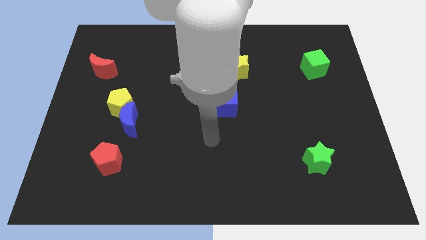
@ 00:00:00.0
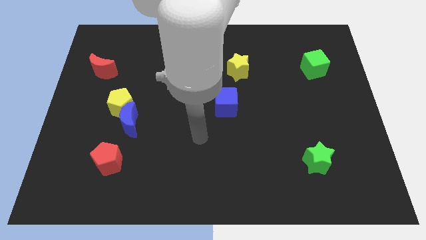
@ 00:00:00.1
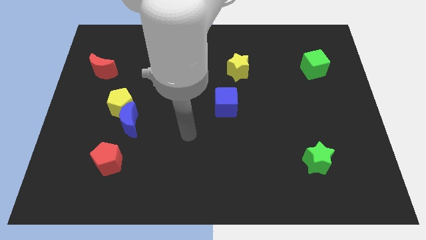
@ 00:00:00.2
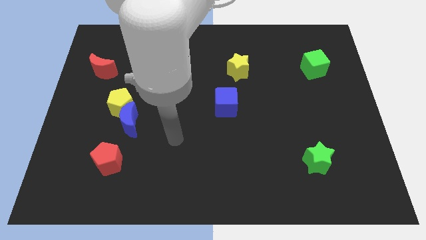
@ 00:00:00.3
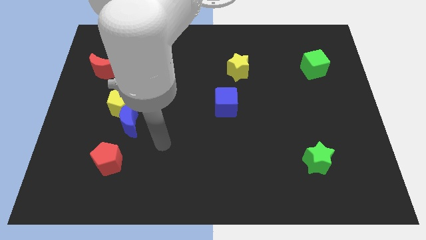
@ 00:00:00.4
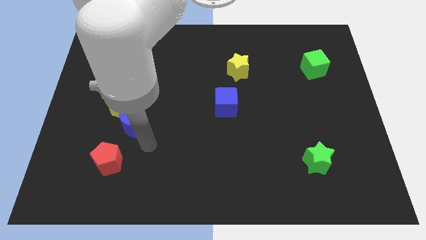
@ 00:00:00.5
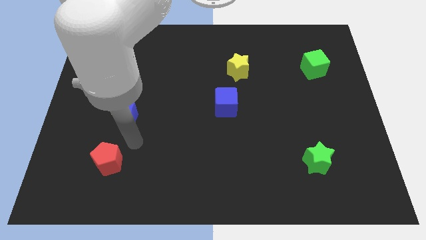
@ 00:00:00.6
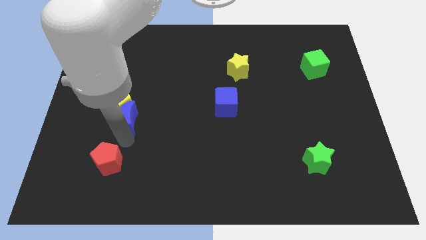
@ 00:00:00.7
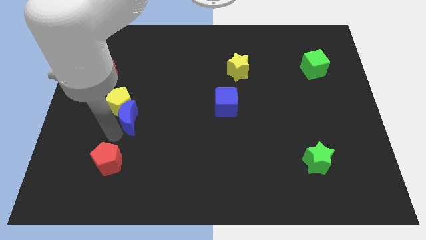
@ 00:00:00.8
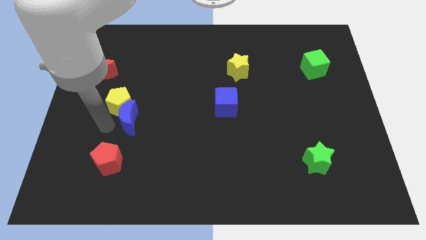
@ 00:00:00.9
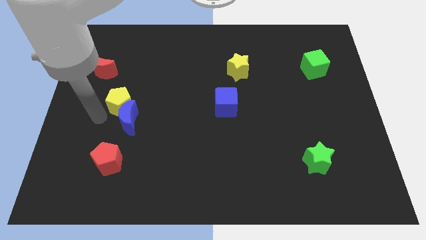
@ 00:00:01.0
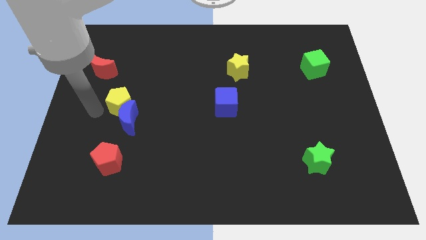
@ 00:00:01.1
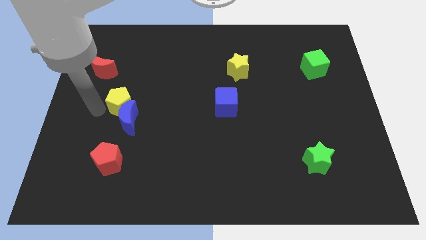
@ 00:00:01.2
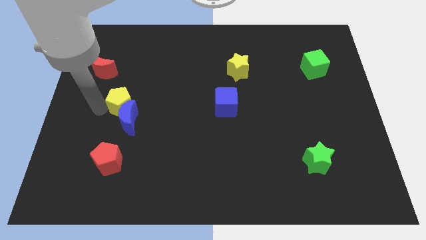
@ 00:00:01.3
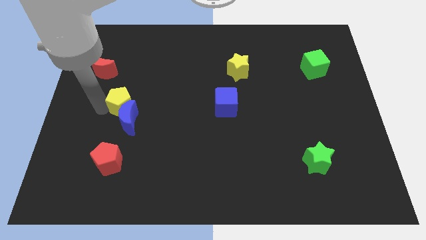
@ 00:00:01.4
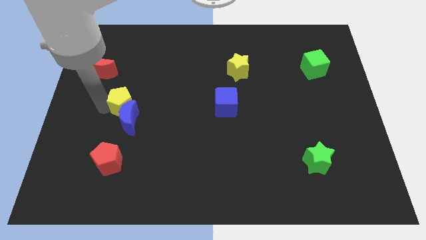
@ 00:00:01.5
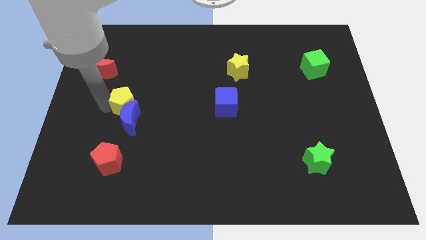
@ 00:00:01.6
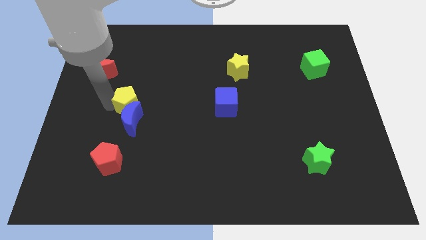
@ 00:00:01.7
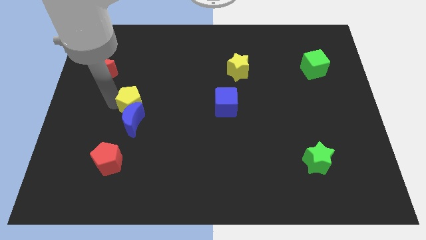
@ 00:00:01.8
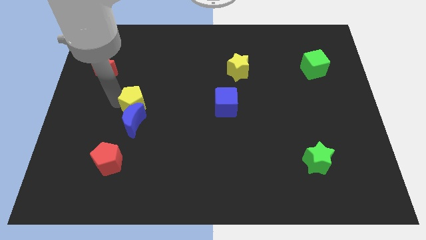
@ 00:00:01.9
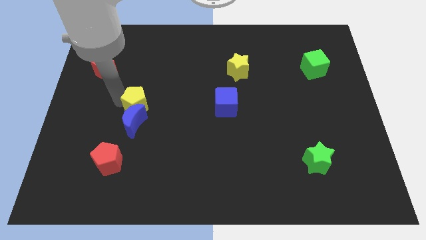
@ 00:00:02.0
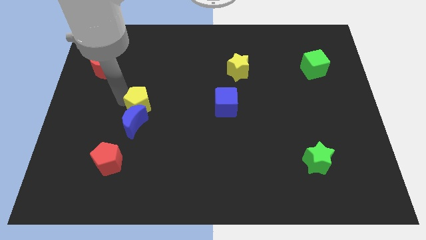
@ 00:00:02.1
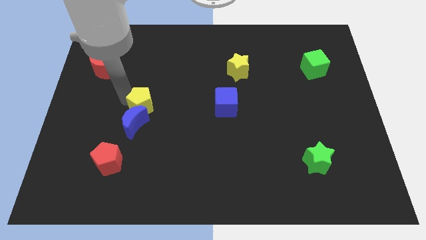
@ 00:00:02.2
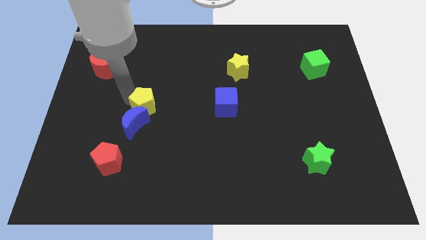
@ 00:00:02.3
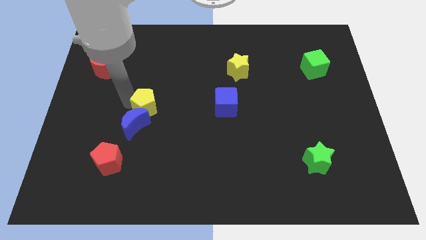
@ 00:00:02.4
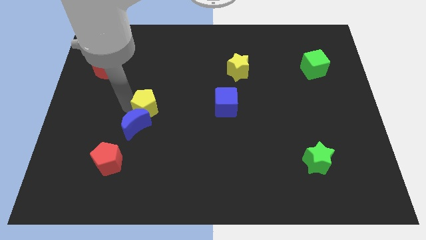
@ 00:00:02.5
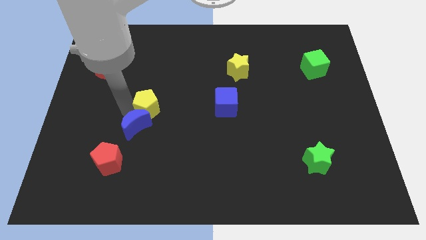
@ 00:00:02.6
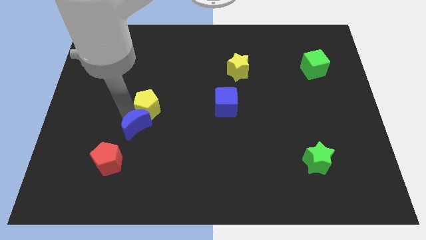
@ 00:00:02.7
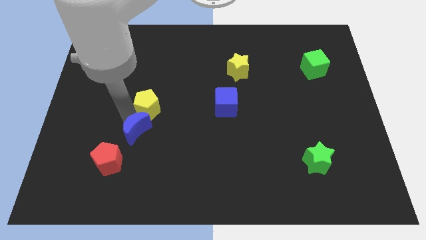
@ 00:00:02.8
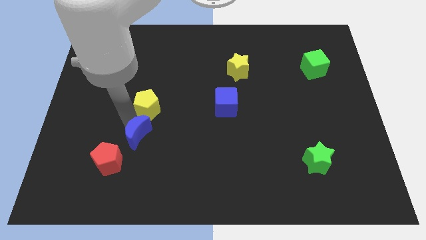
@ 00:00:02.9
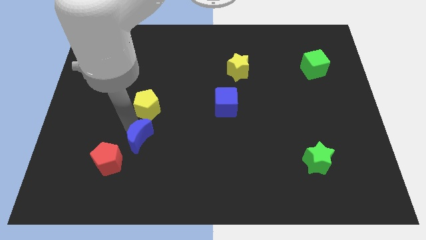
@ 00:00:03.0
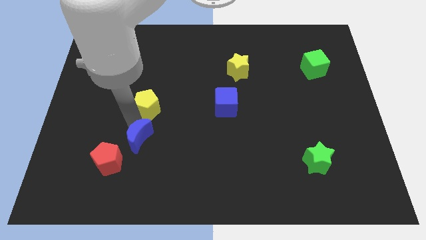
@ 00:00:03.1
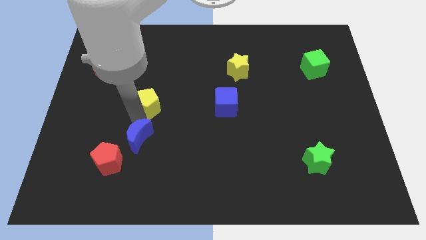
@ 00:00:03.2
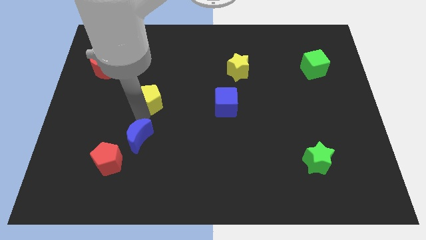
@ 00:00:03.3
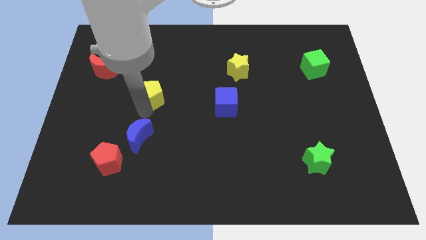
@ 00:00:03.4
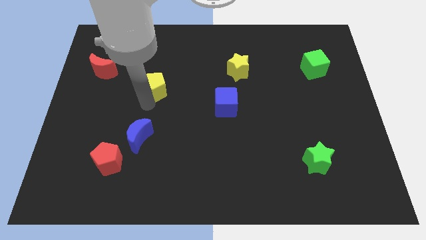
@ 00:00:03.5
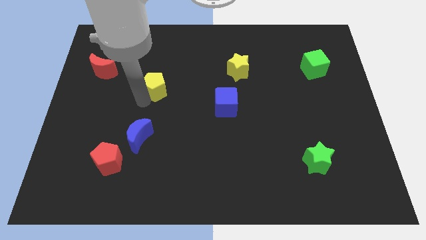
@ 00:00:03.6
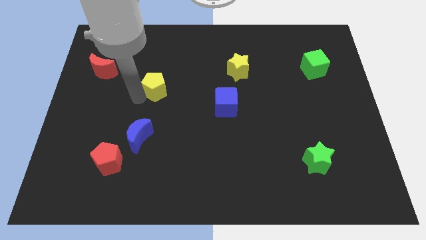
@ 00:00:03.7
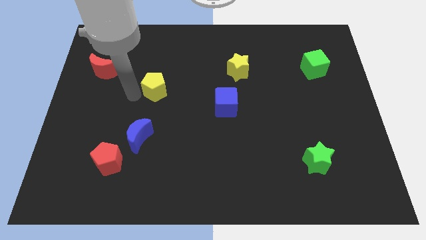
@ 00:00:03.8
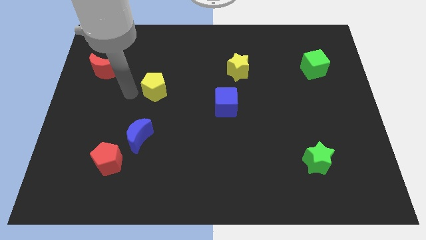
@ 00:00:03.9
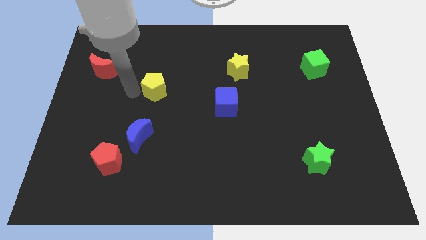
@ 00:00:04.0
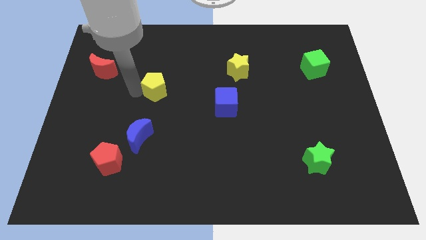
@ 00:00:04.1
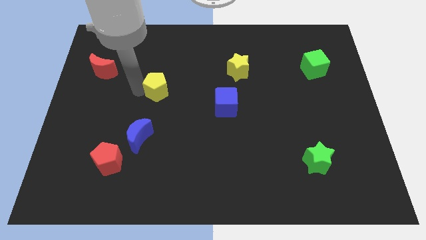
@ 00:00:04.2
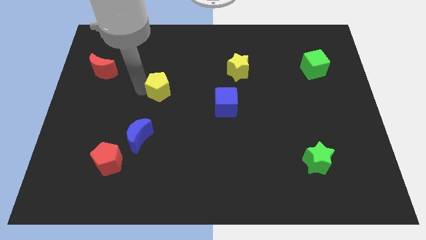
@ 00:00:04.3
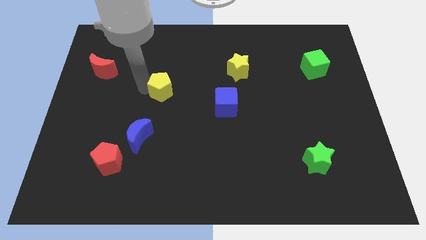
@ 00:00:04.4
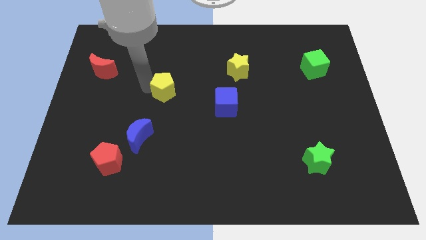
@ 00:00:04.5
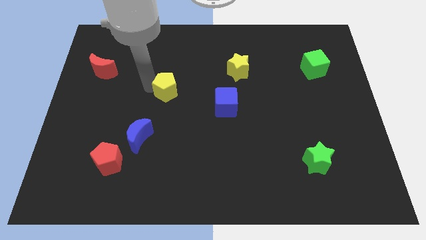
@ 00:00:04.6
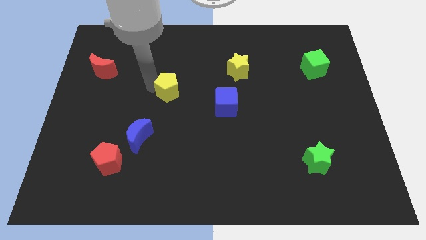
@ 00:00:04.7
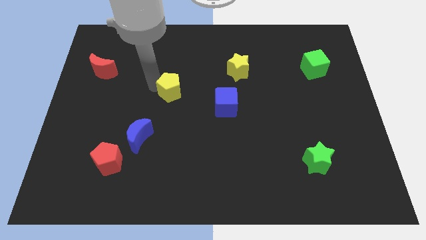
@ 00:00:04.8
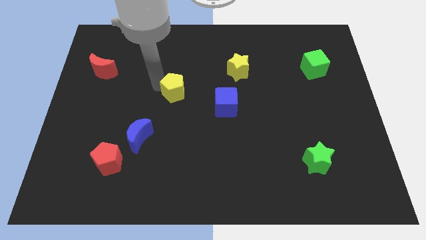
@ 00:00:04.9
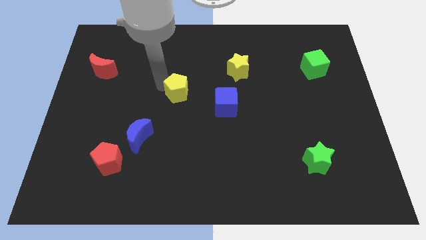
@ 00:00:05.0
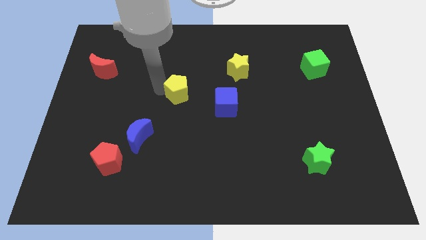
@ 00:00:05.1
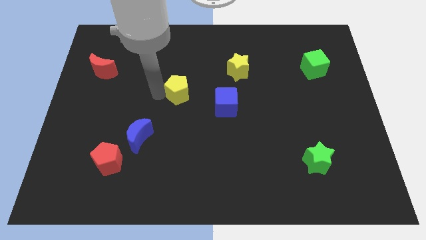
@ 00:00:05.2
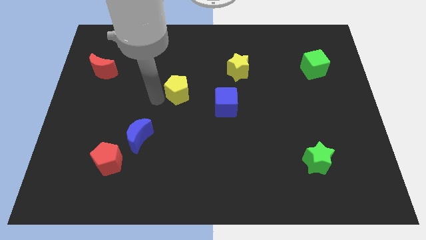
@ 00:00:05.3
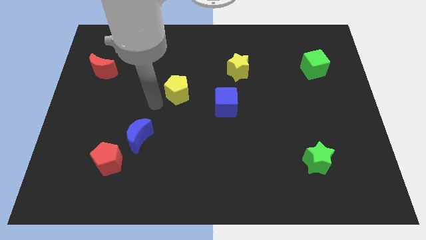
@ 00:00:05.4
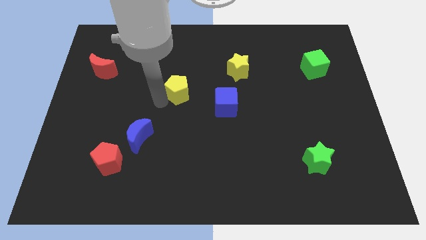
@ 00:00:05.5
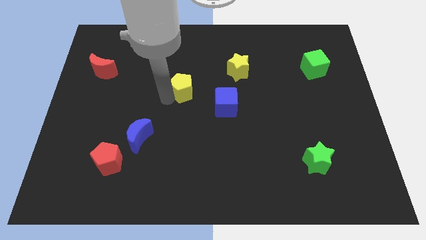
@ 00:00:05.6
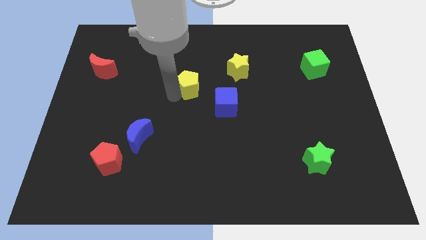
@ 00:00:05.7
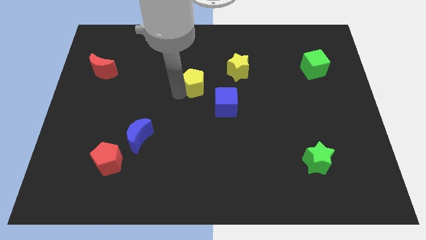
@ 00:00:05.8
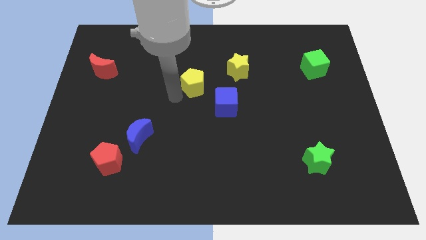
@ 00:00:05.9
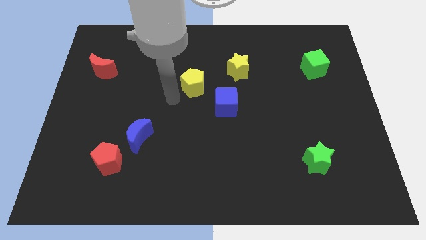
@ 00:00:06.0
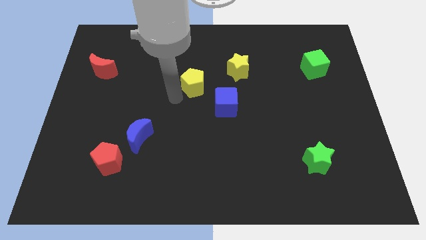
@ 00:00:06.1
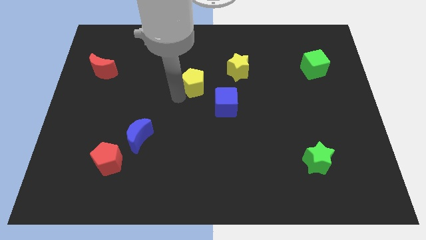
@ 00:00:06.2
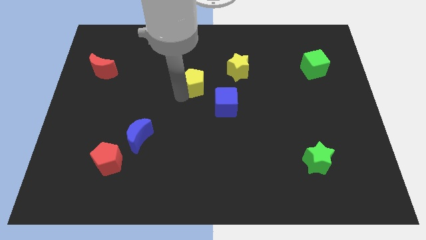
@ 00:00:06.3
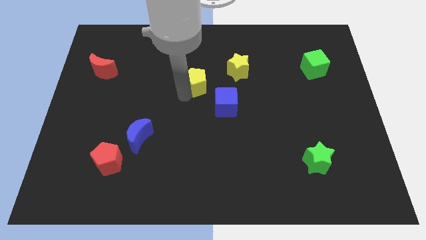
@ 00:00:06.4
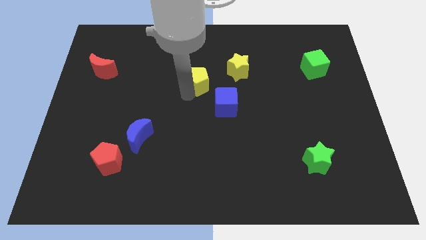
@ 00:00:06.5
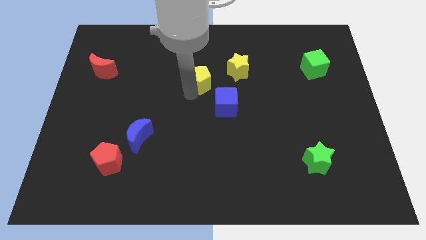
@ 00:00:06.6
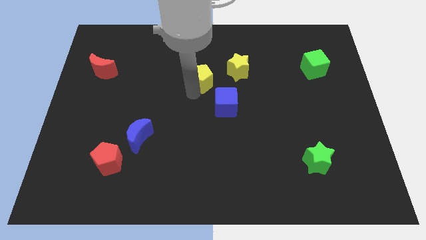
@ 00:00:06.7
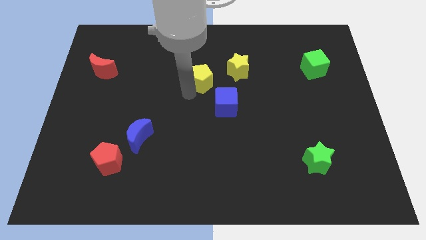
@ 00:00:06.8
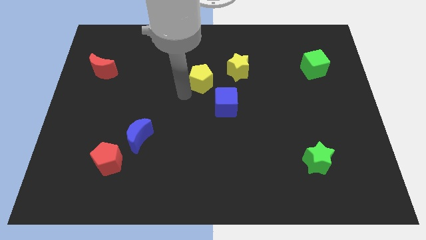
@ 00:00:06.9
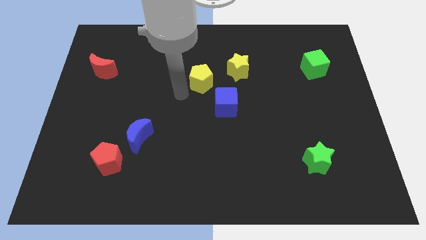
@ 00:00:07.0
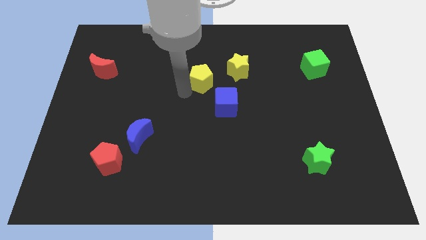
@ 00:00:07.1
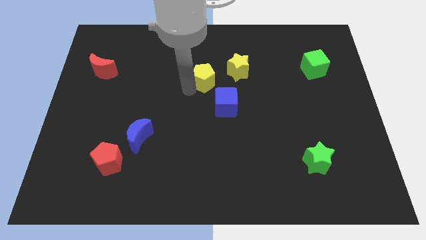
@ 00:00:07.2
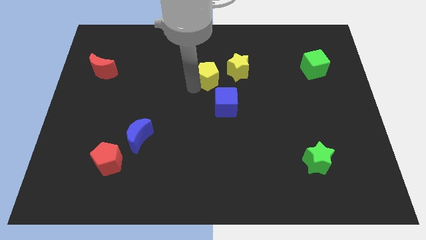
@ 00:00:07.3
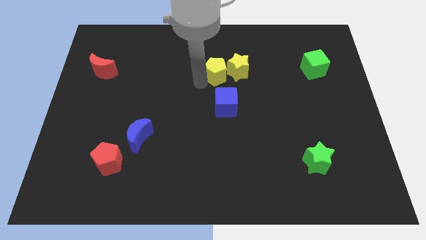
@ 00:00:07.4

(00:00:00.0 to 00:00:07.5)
push the yellow pentagon next to the yellow star
